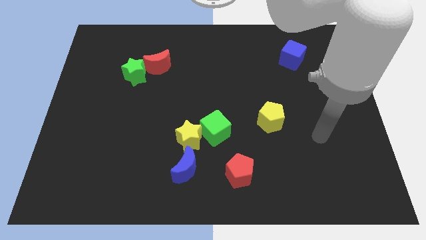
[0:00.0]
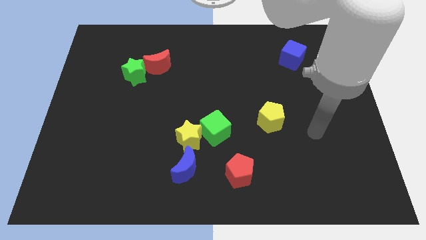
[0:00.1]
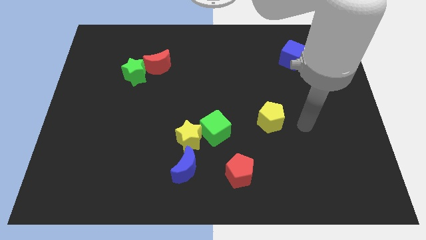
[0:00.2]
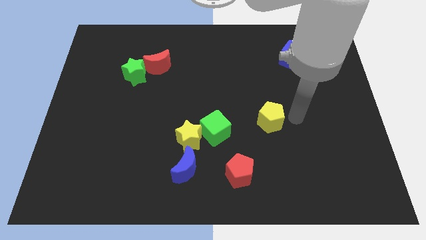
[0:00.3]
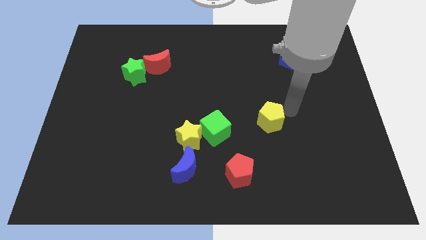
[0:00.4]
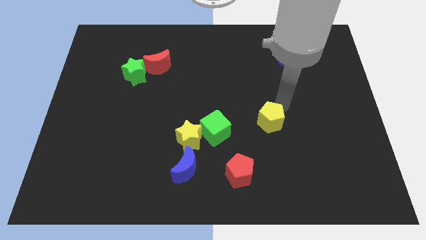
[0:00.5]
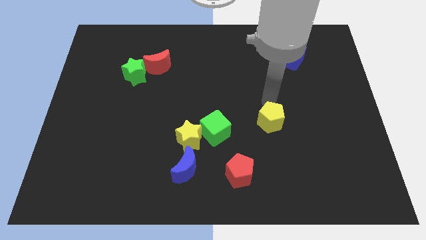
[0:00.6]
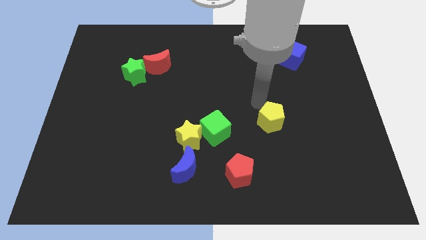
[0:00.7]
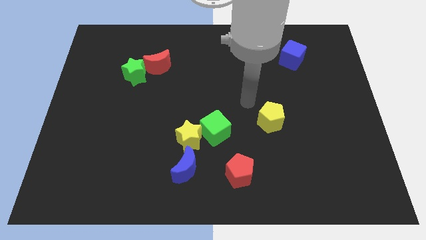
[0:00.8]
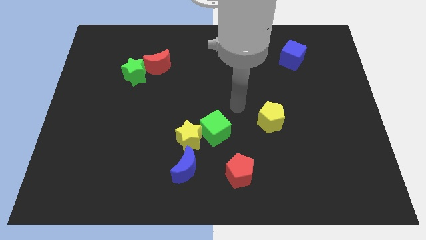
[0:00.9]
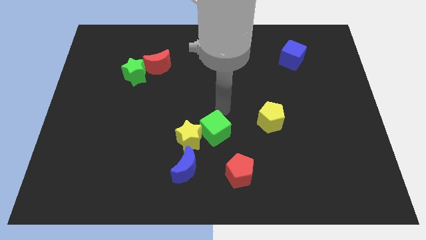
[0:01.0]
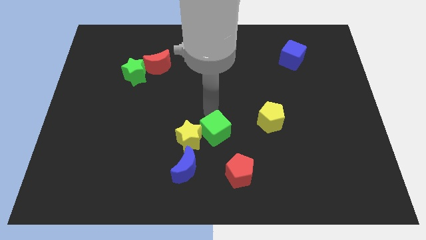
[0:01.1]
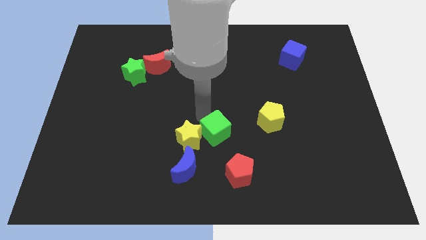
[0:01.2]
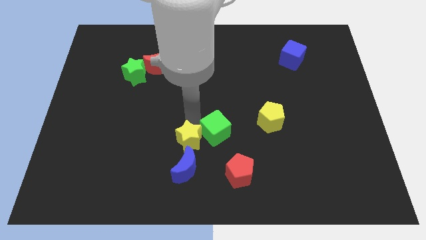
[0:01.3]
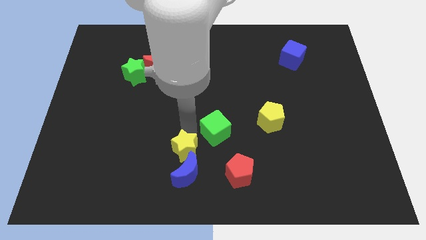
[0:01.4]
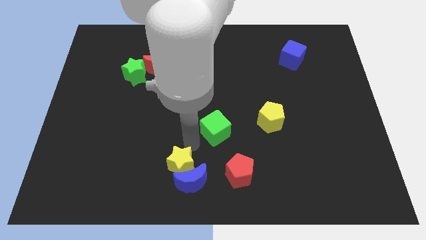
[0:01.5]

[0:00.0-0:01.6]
separate the green cube from the yellow star

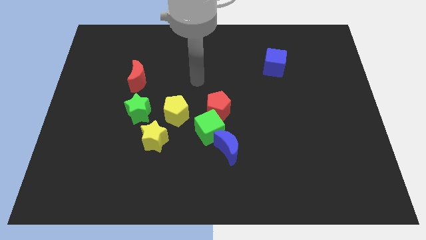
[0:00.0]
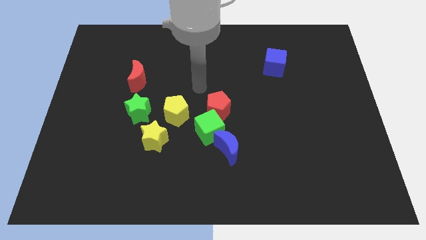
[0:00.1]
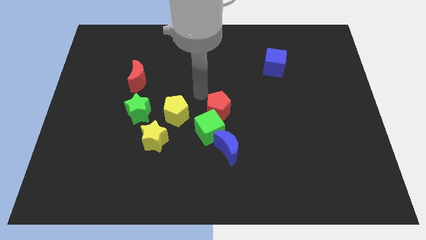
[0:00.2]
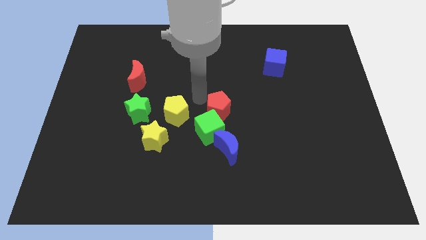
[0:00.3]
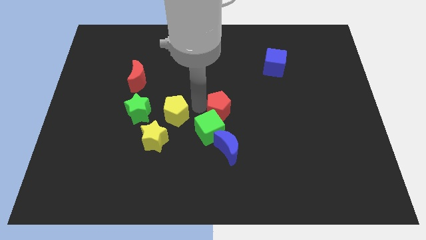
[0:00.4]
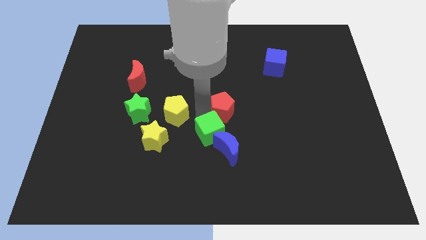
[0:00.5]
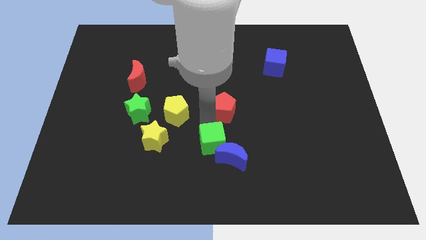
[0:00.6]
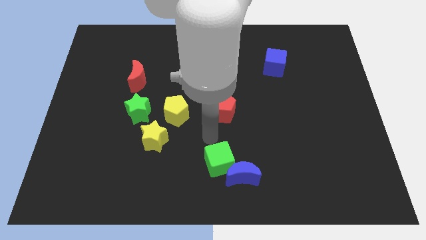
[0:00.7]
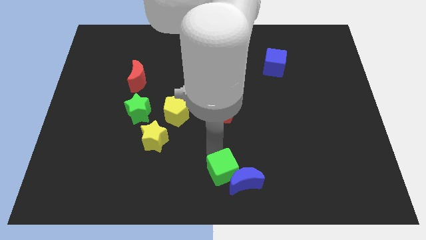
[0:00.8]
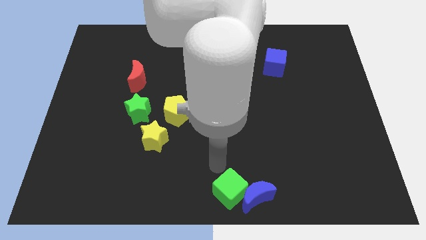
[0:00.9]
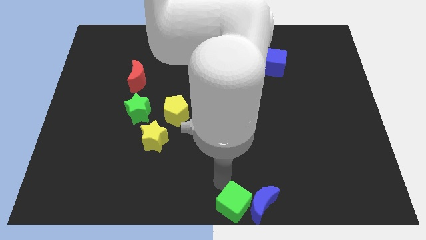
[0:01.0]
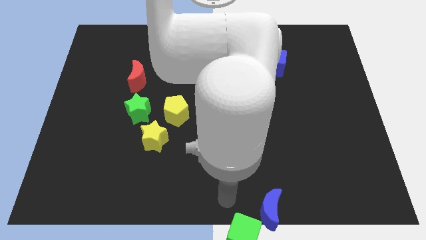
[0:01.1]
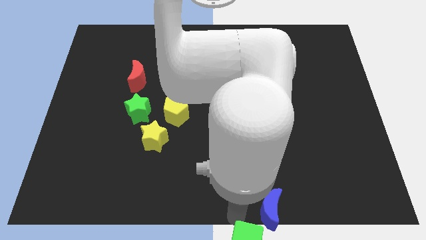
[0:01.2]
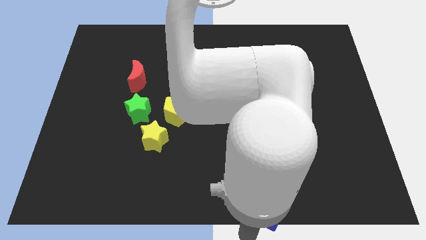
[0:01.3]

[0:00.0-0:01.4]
separate the blue moon from the green cube

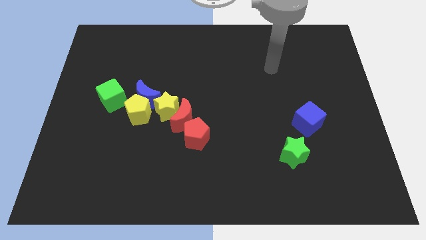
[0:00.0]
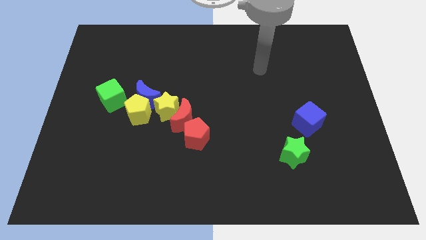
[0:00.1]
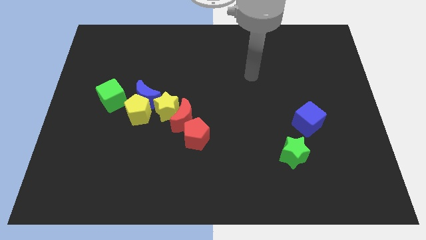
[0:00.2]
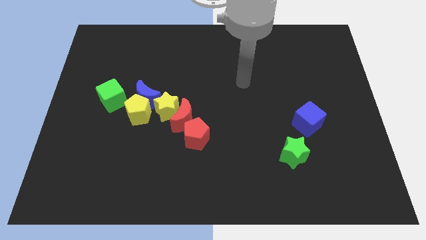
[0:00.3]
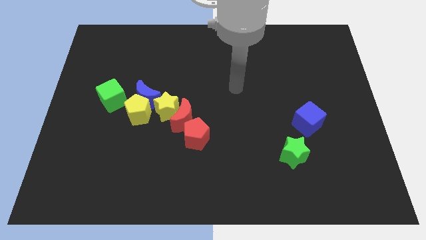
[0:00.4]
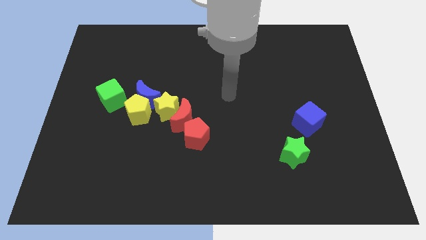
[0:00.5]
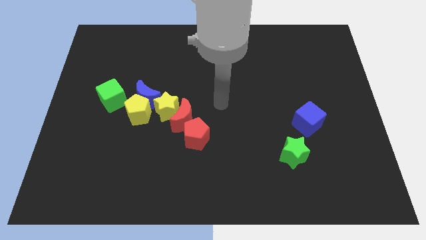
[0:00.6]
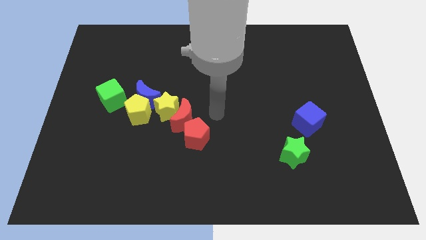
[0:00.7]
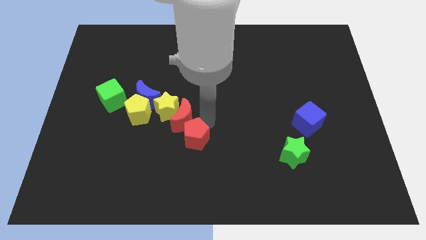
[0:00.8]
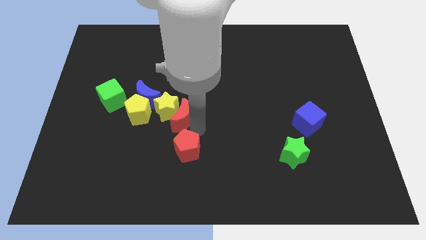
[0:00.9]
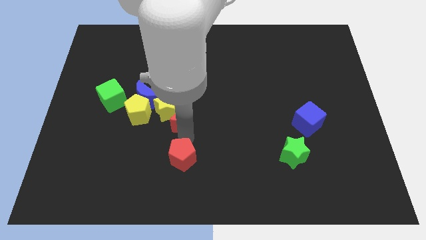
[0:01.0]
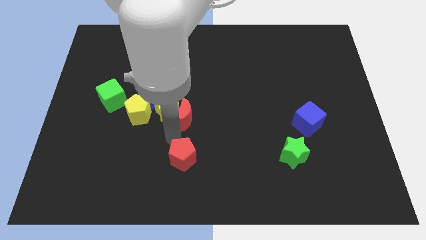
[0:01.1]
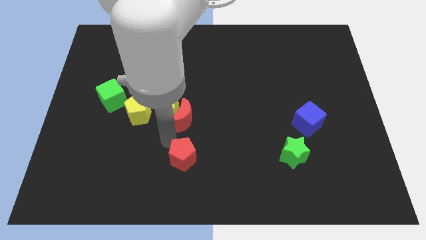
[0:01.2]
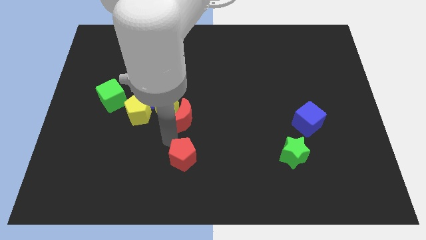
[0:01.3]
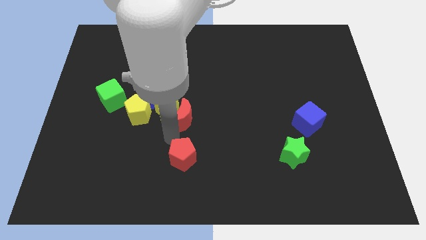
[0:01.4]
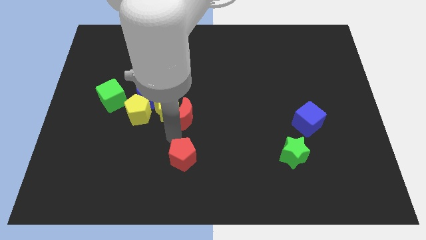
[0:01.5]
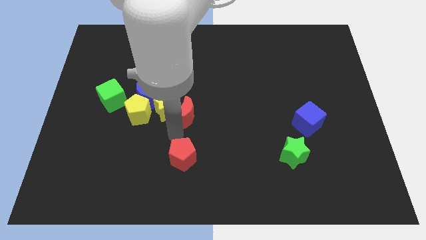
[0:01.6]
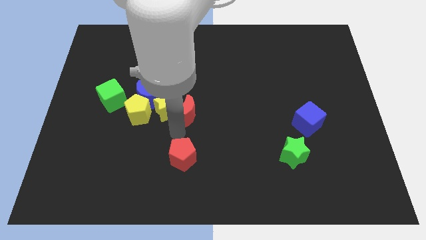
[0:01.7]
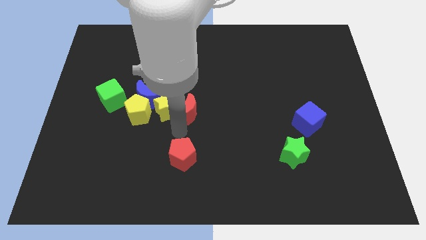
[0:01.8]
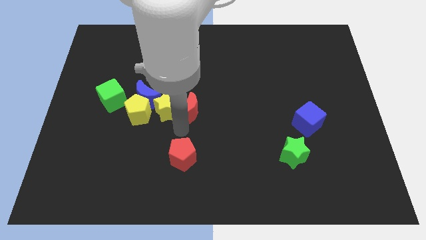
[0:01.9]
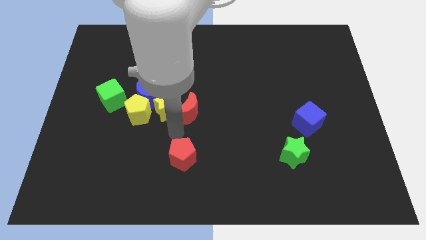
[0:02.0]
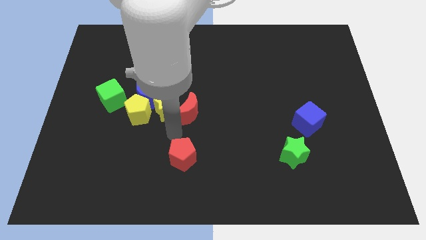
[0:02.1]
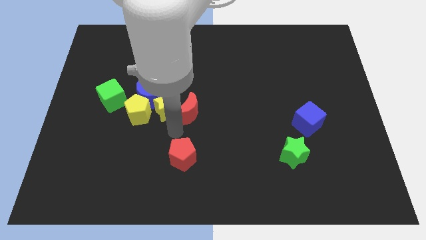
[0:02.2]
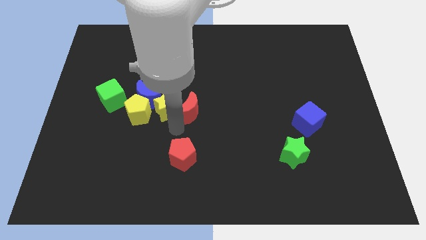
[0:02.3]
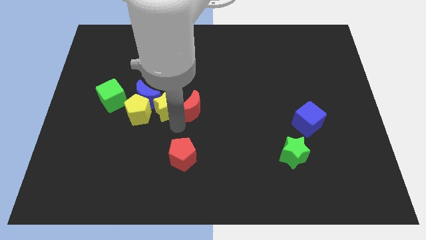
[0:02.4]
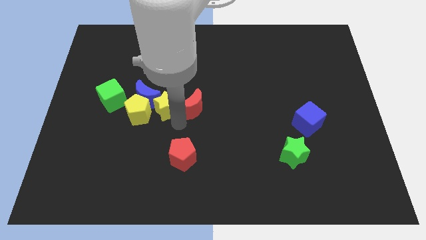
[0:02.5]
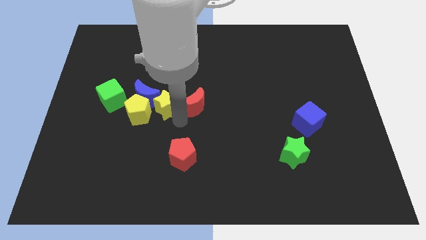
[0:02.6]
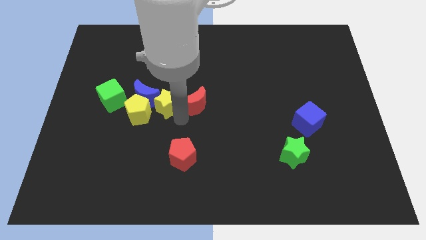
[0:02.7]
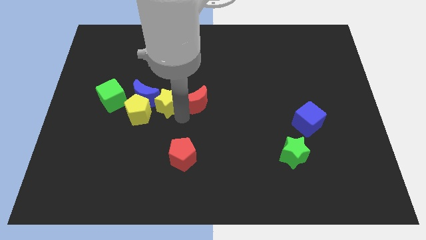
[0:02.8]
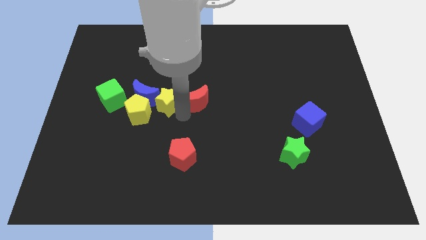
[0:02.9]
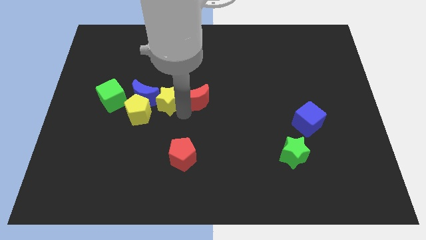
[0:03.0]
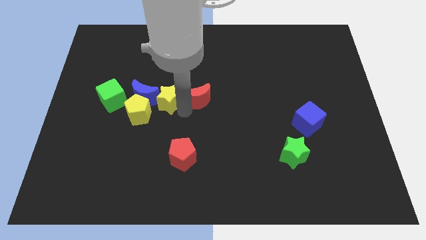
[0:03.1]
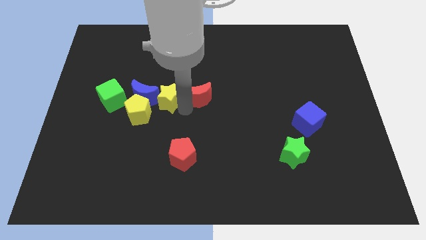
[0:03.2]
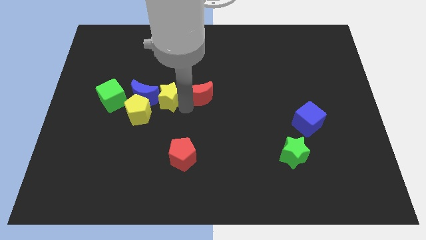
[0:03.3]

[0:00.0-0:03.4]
pull the red moon apart from the yellow star and red pentagon

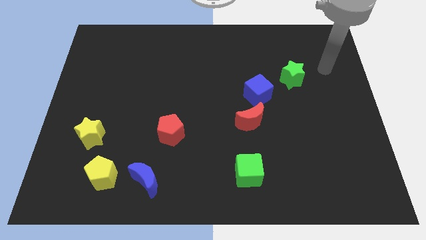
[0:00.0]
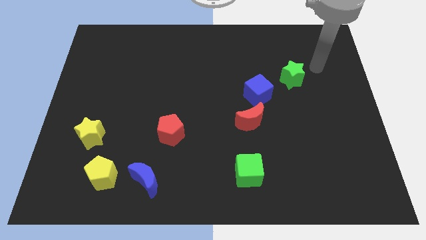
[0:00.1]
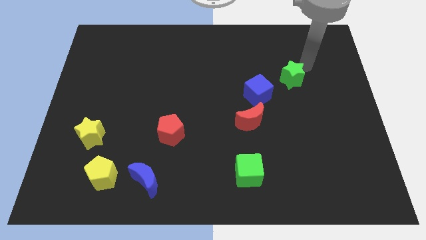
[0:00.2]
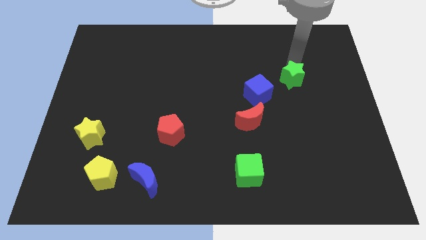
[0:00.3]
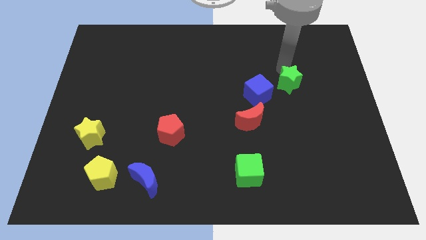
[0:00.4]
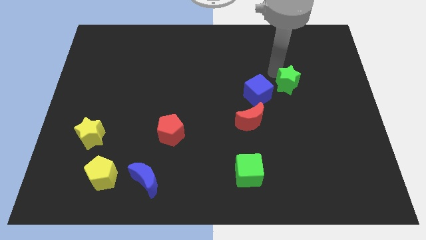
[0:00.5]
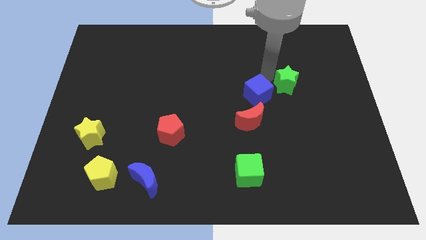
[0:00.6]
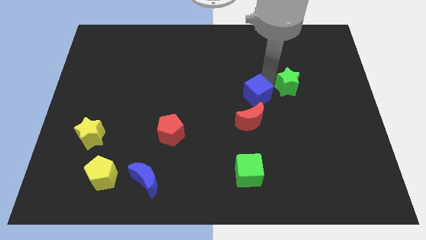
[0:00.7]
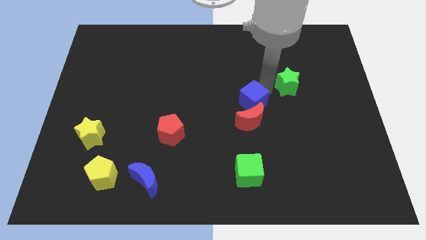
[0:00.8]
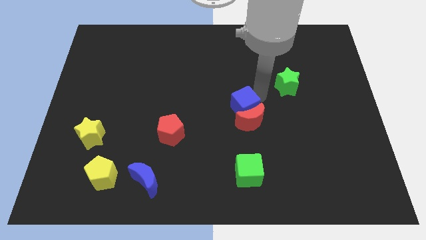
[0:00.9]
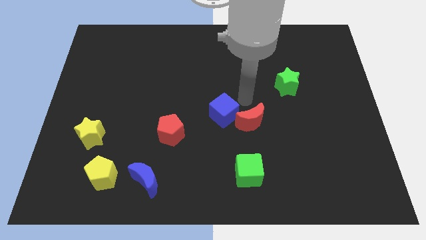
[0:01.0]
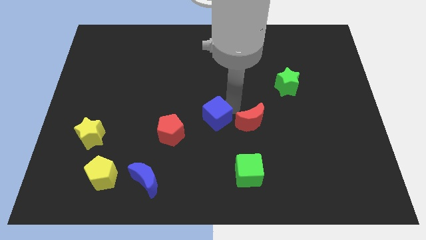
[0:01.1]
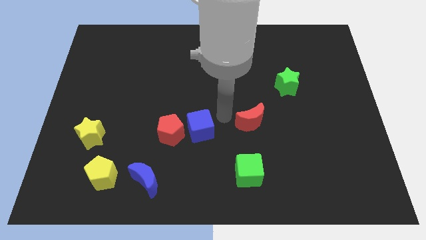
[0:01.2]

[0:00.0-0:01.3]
move the red moon away from the blue cube

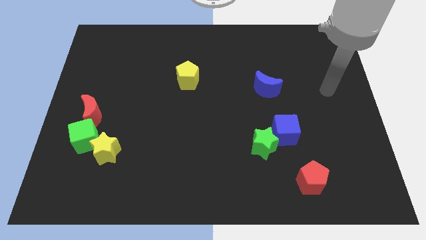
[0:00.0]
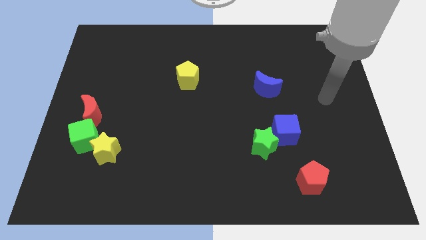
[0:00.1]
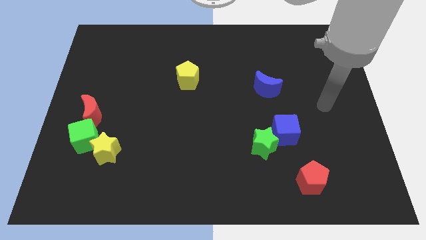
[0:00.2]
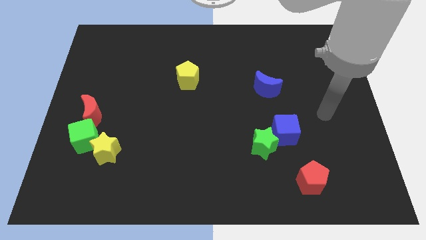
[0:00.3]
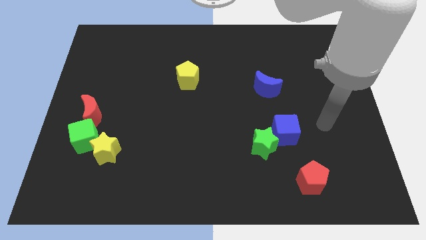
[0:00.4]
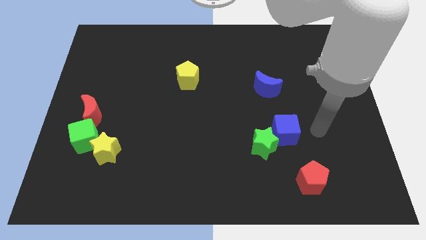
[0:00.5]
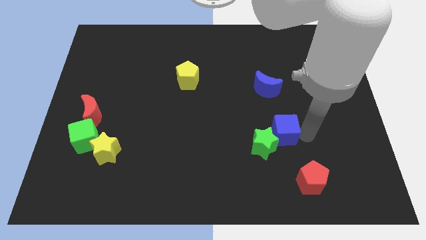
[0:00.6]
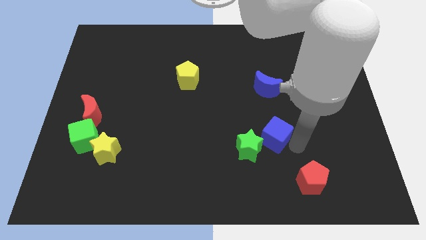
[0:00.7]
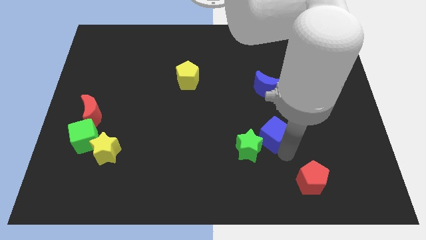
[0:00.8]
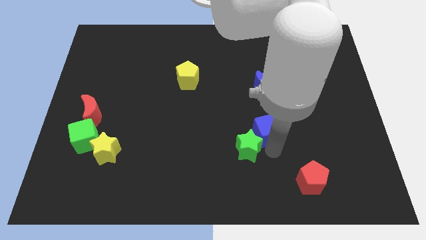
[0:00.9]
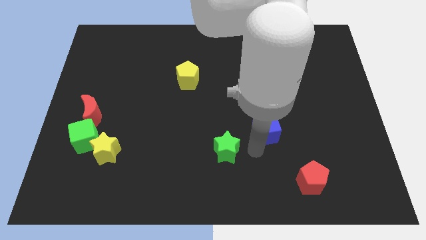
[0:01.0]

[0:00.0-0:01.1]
move the blue cube away from the green star

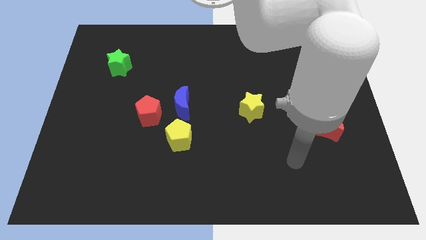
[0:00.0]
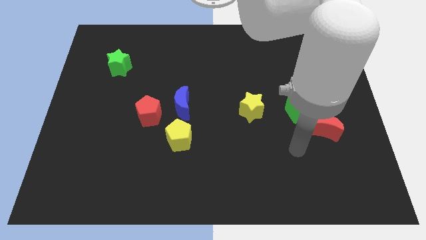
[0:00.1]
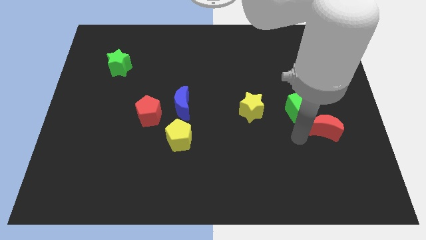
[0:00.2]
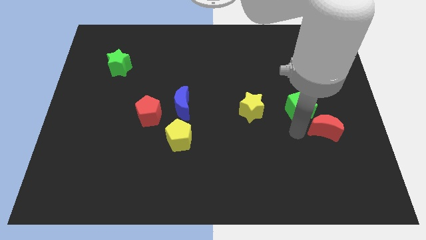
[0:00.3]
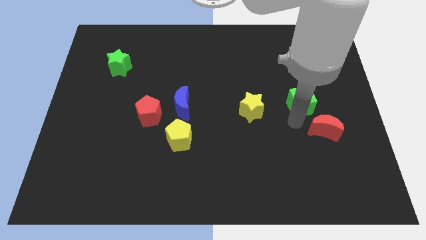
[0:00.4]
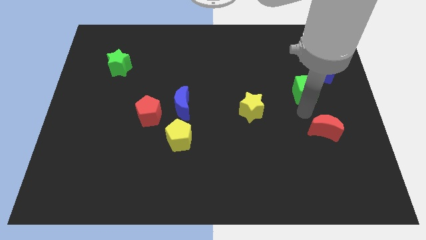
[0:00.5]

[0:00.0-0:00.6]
pull the red moon apart from the green cube
